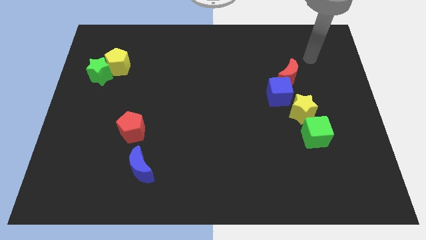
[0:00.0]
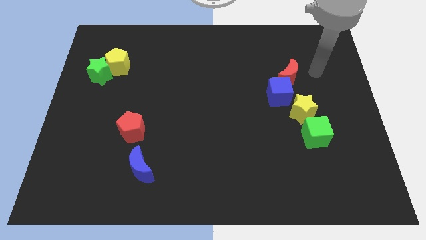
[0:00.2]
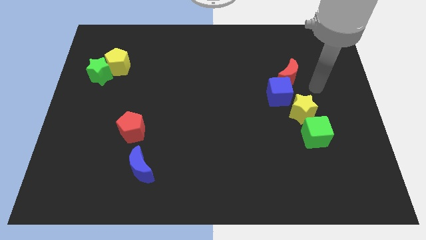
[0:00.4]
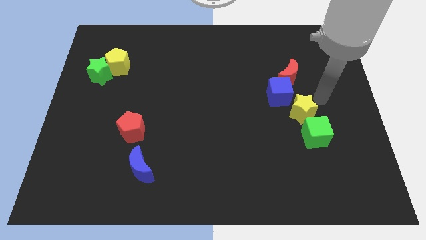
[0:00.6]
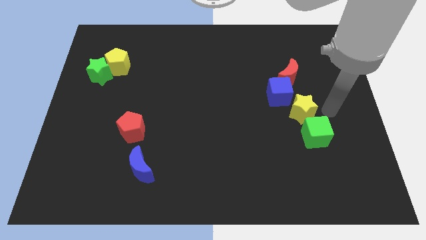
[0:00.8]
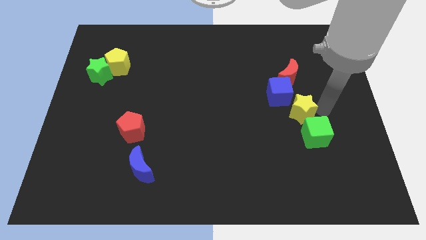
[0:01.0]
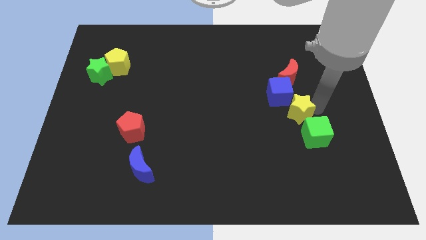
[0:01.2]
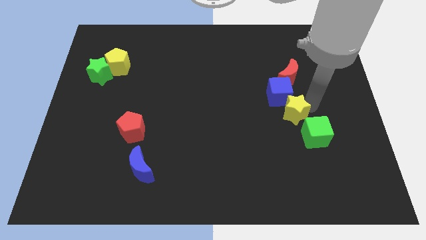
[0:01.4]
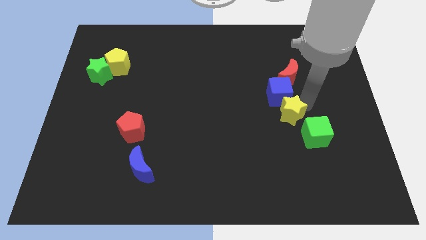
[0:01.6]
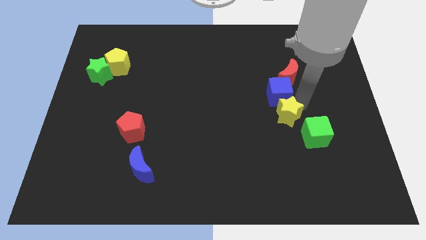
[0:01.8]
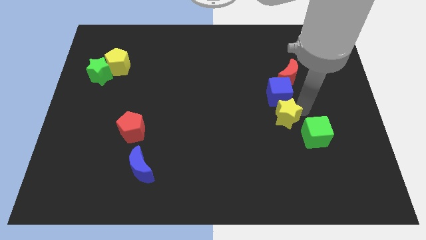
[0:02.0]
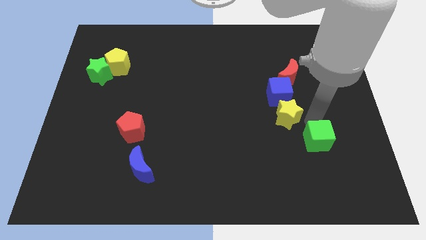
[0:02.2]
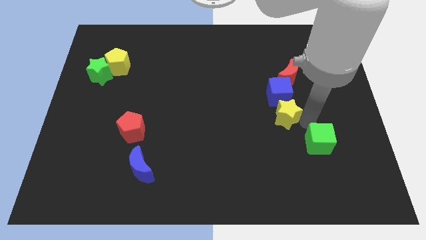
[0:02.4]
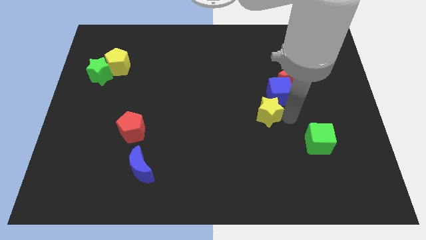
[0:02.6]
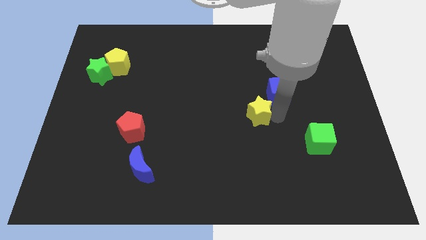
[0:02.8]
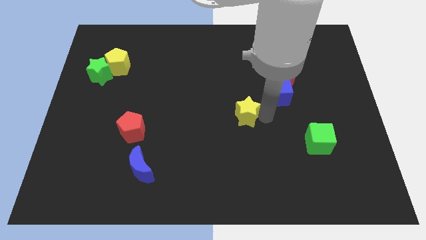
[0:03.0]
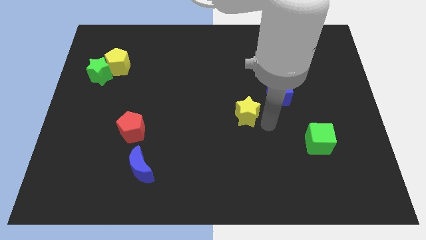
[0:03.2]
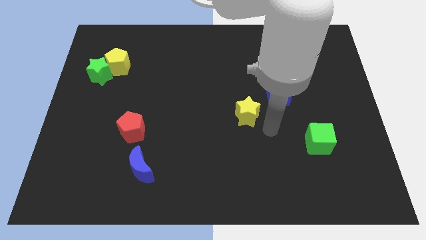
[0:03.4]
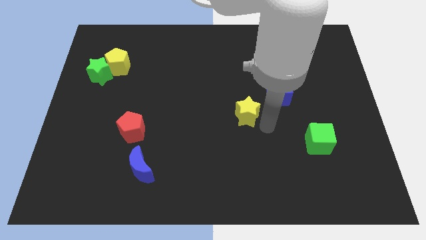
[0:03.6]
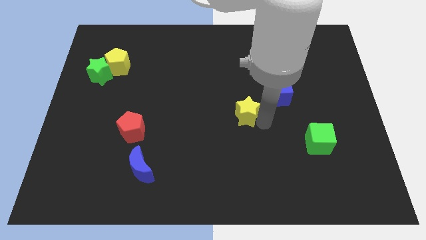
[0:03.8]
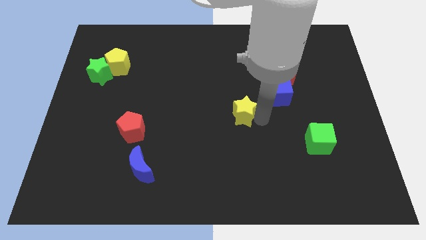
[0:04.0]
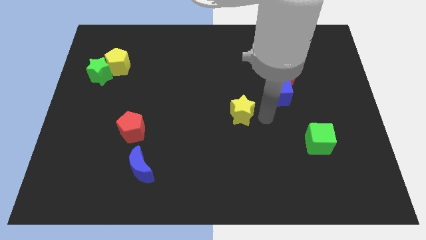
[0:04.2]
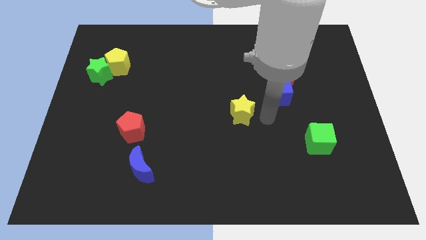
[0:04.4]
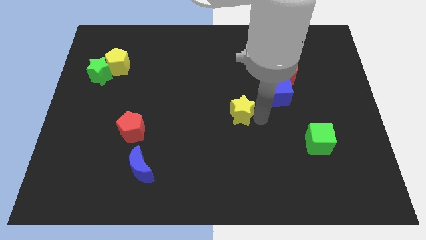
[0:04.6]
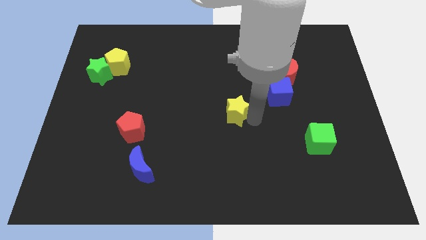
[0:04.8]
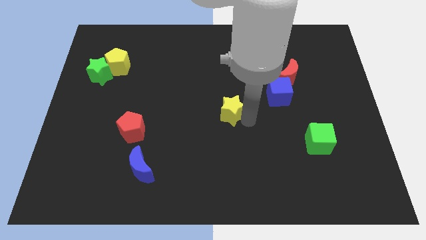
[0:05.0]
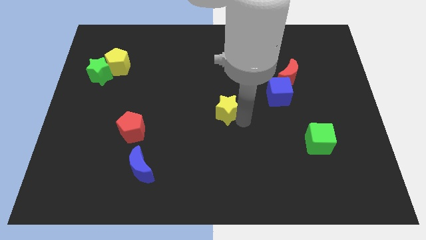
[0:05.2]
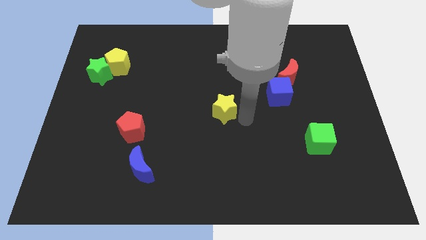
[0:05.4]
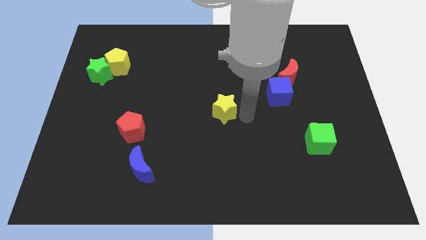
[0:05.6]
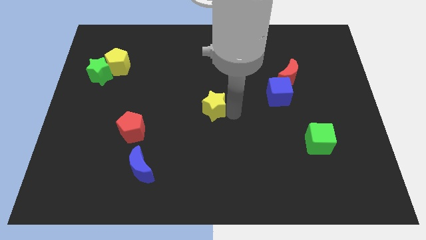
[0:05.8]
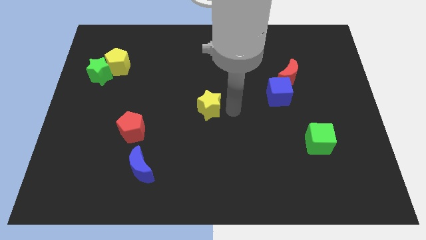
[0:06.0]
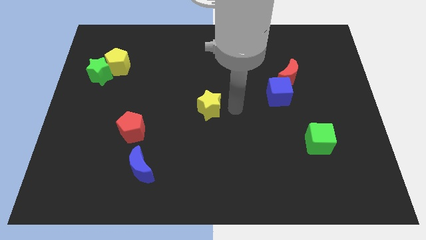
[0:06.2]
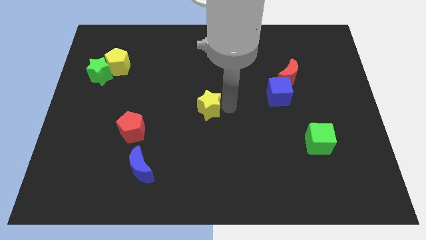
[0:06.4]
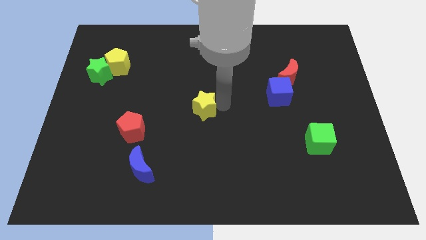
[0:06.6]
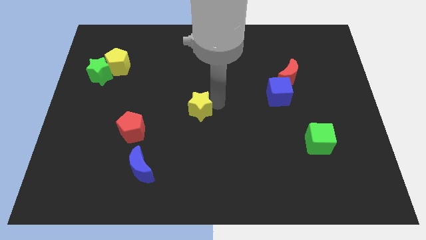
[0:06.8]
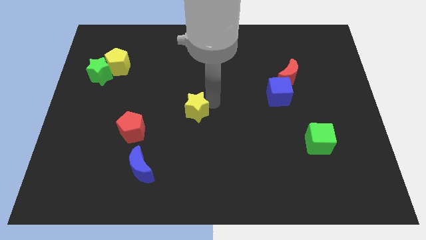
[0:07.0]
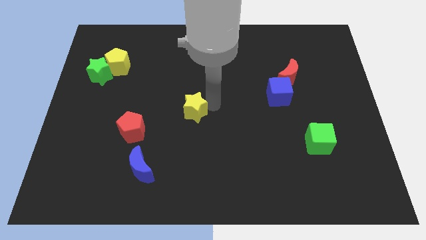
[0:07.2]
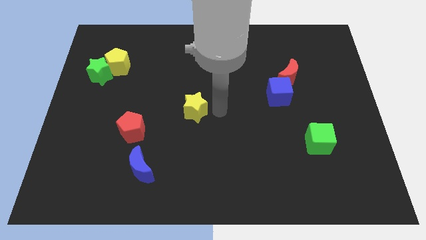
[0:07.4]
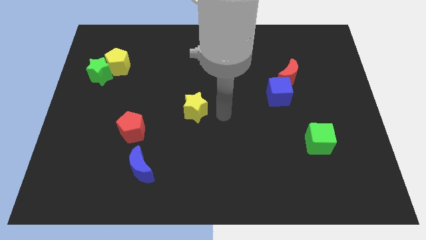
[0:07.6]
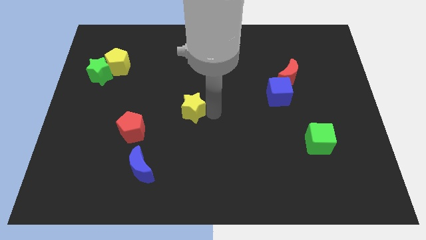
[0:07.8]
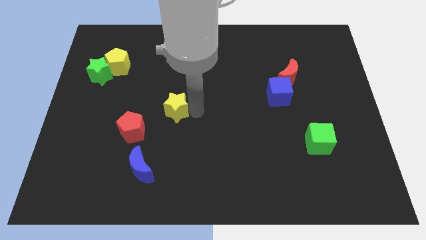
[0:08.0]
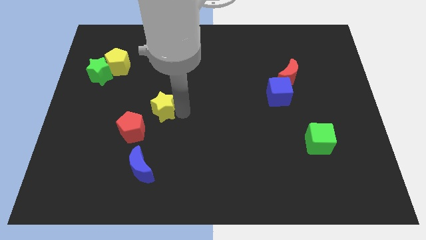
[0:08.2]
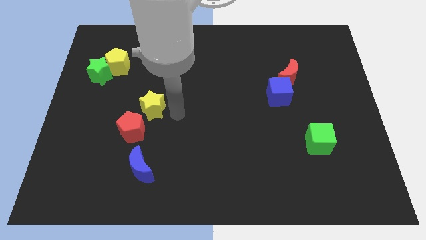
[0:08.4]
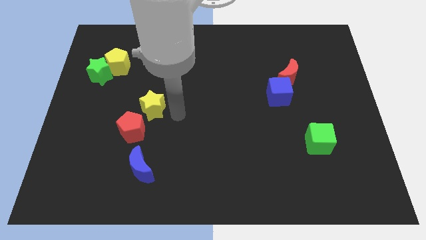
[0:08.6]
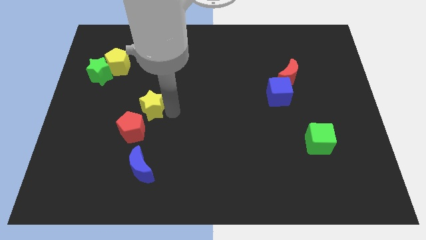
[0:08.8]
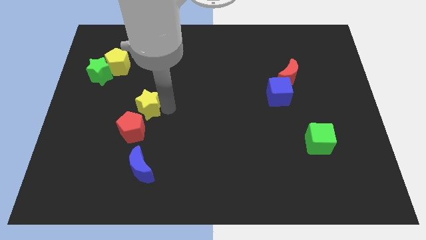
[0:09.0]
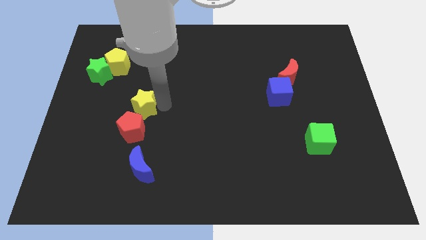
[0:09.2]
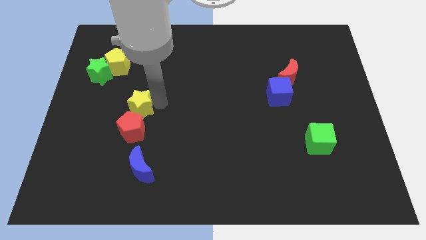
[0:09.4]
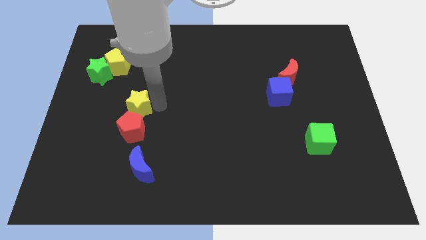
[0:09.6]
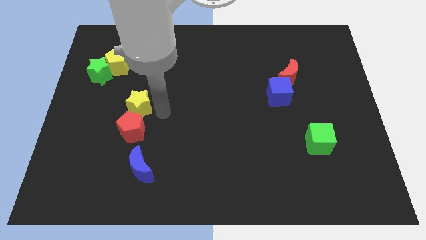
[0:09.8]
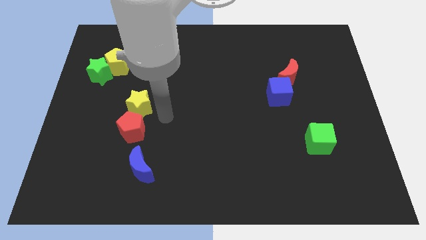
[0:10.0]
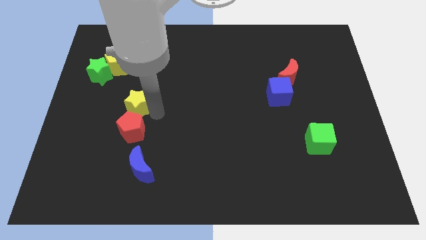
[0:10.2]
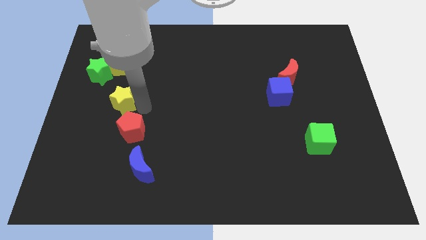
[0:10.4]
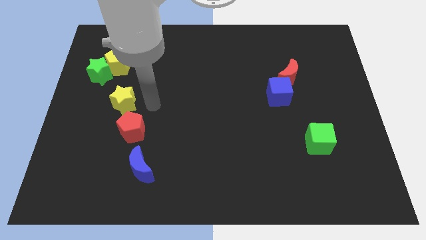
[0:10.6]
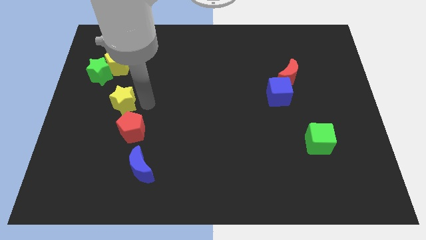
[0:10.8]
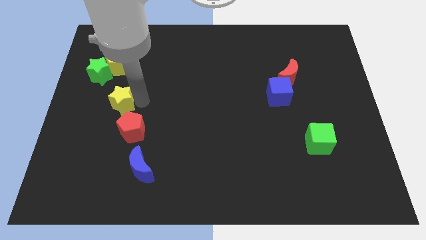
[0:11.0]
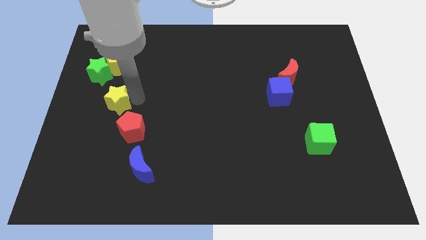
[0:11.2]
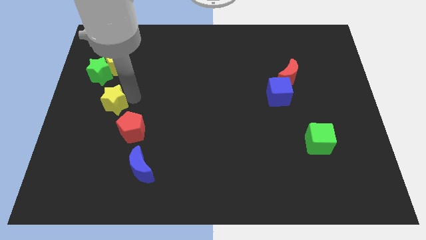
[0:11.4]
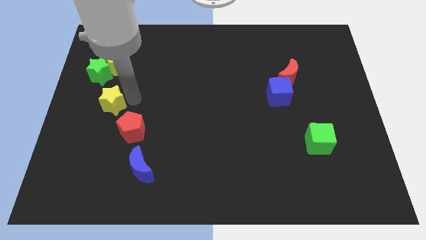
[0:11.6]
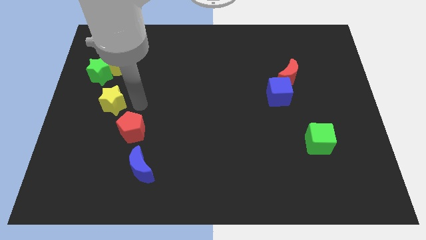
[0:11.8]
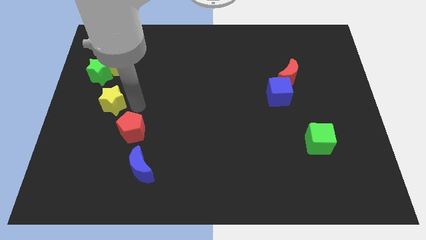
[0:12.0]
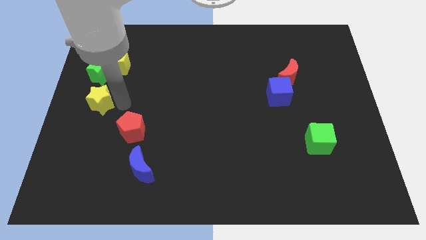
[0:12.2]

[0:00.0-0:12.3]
slide the yellow star to the left side
